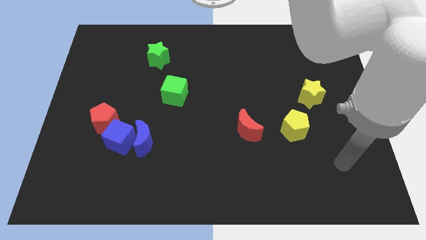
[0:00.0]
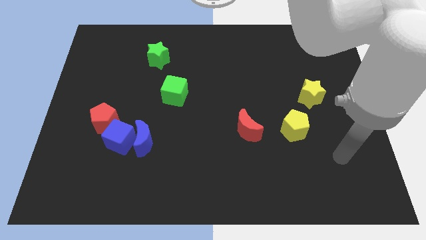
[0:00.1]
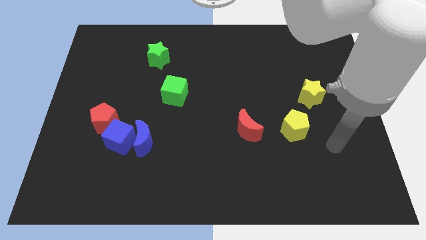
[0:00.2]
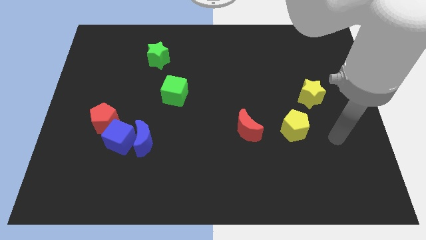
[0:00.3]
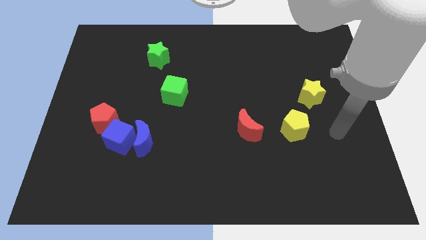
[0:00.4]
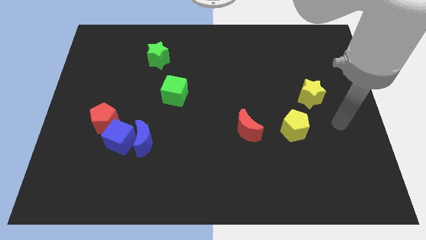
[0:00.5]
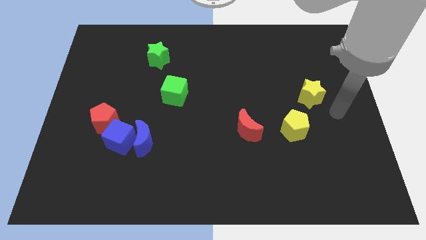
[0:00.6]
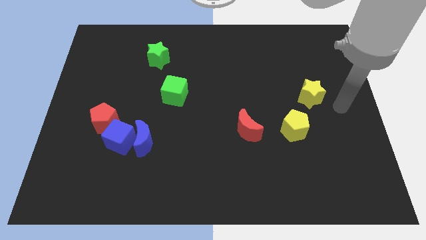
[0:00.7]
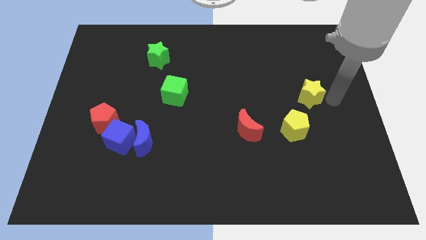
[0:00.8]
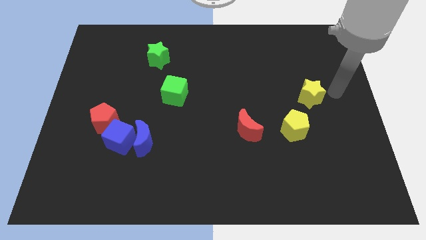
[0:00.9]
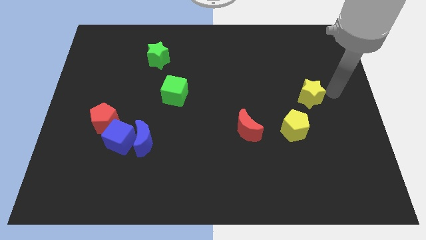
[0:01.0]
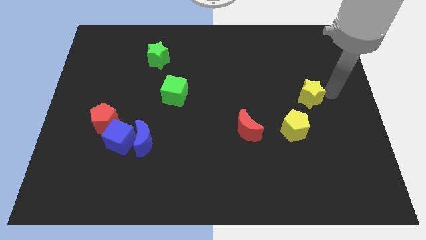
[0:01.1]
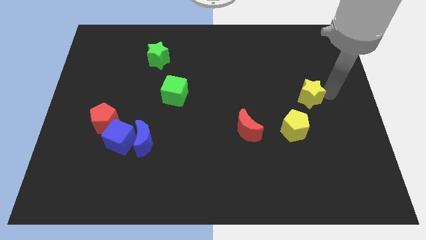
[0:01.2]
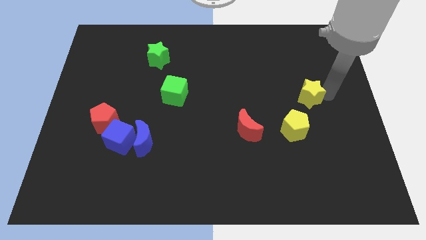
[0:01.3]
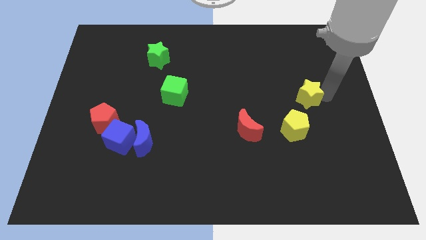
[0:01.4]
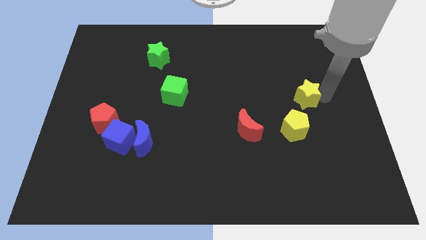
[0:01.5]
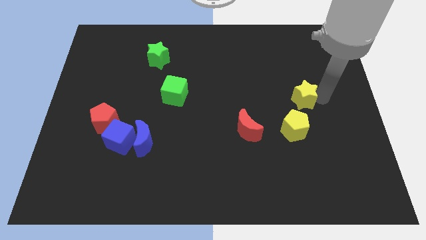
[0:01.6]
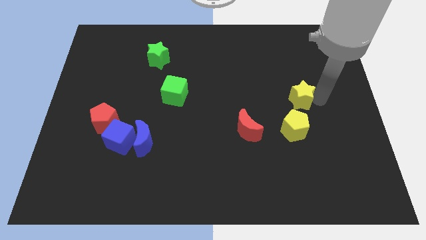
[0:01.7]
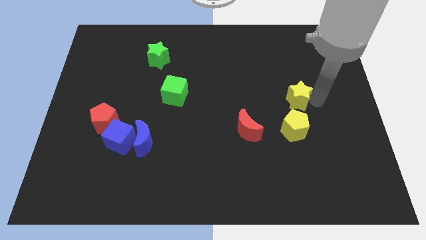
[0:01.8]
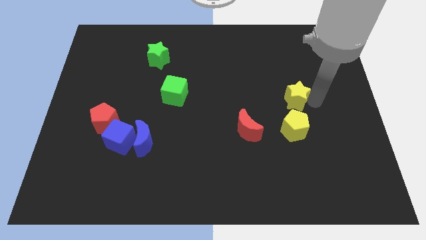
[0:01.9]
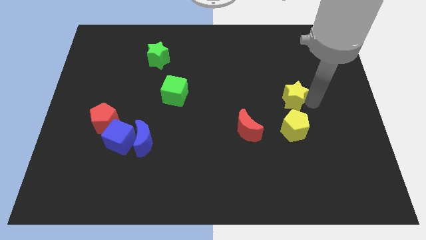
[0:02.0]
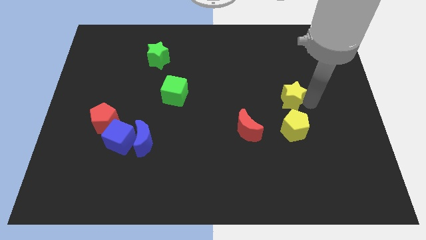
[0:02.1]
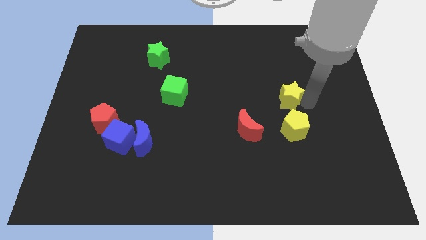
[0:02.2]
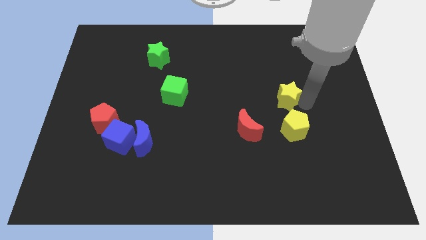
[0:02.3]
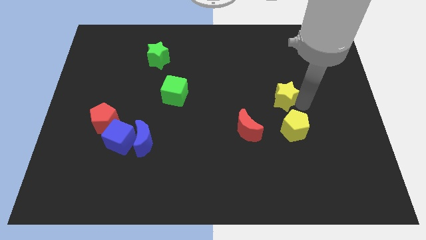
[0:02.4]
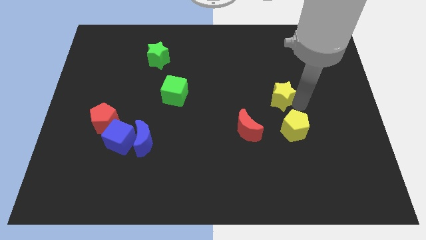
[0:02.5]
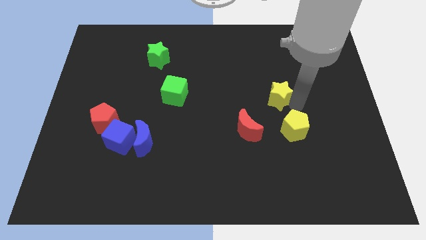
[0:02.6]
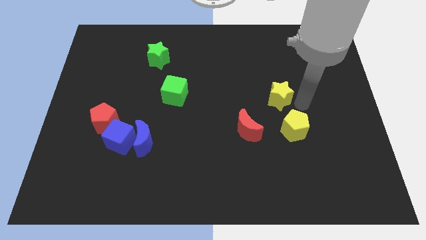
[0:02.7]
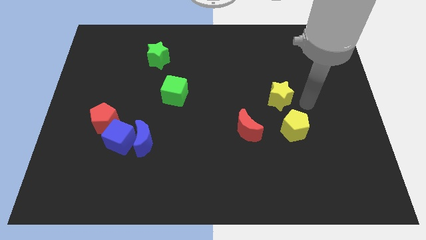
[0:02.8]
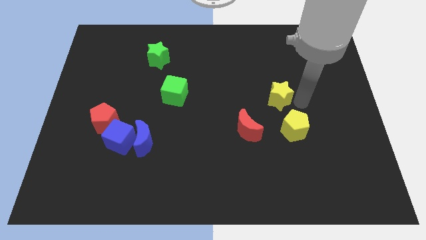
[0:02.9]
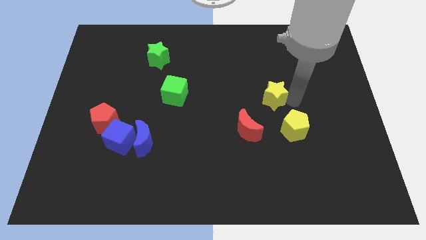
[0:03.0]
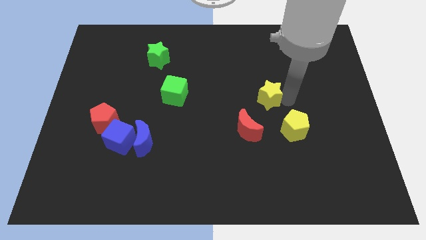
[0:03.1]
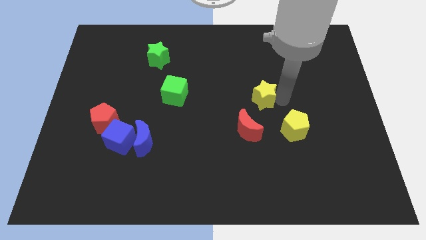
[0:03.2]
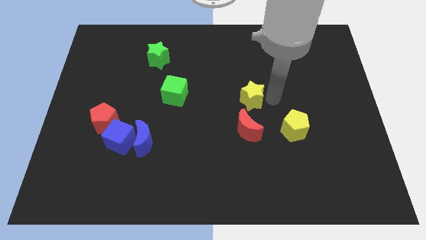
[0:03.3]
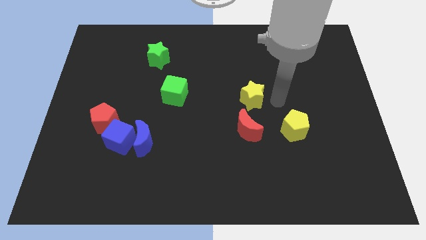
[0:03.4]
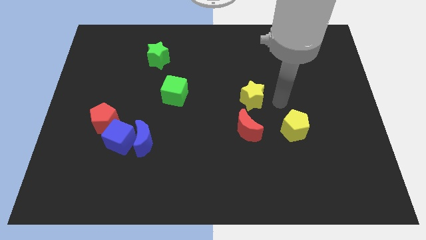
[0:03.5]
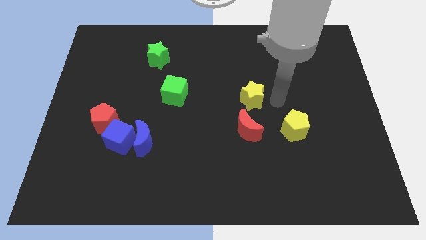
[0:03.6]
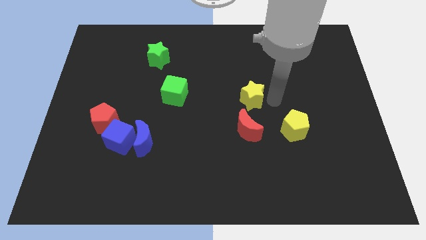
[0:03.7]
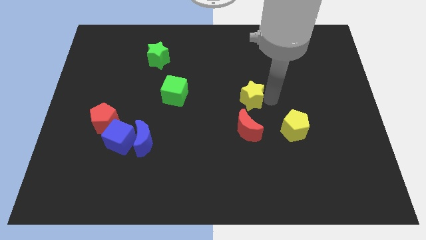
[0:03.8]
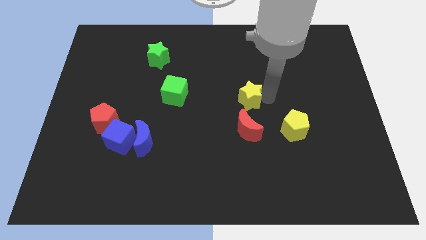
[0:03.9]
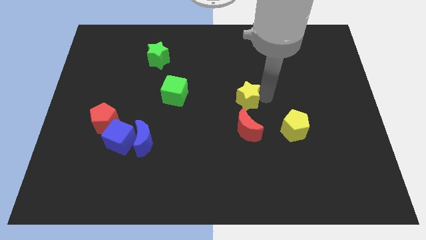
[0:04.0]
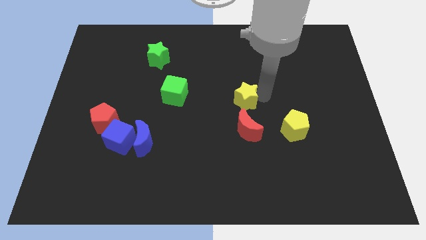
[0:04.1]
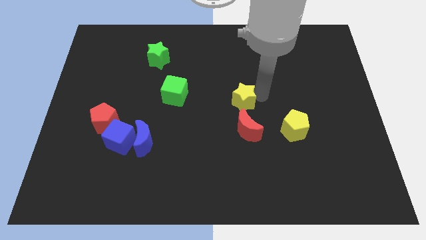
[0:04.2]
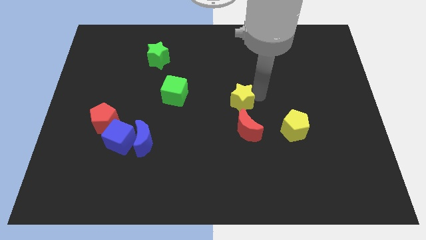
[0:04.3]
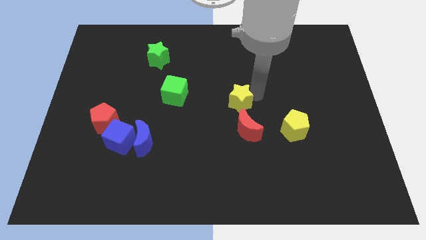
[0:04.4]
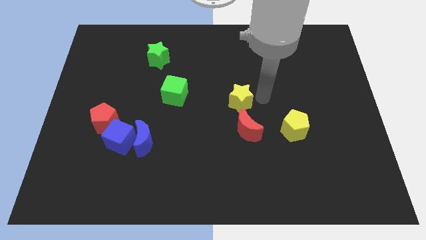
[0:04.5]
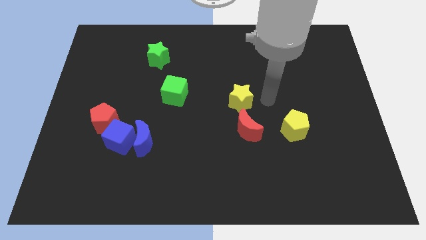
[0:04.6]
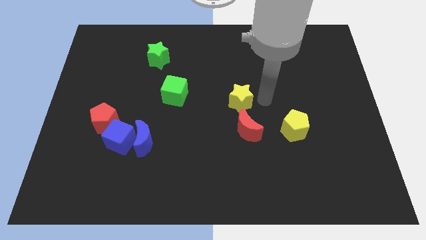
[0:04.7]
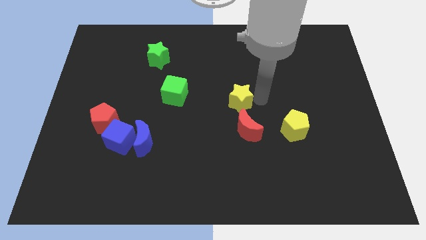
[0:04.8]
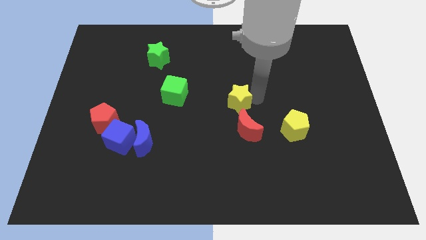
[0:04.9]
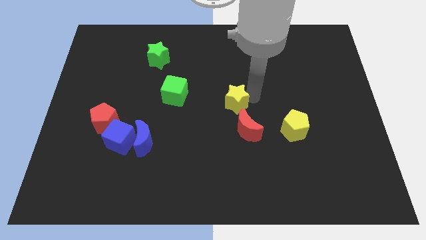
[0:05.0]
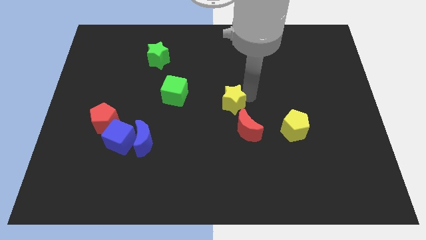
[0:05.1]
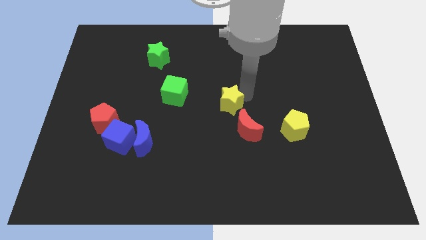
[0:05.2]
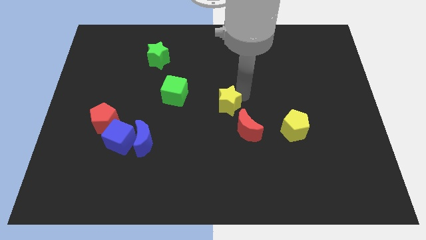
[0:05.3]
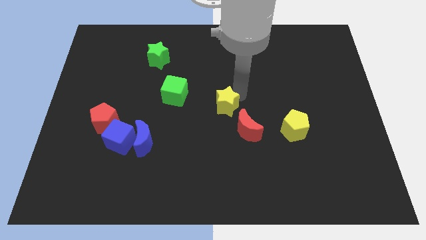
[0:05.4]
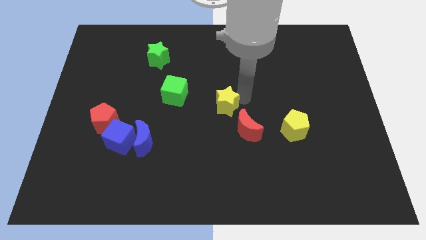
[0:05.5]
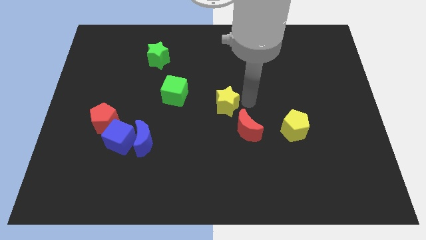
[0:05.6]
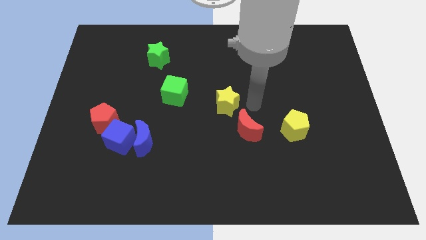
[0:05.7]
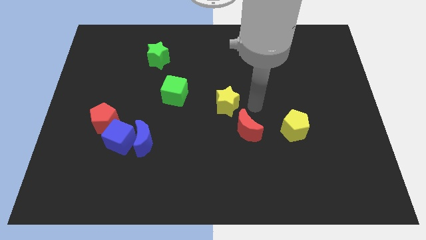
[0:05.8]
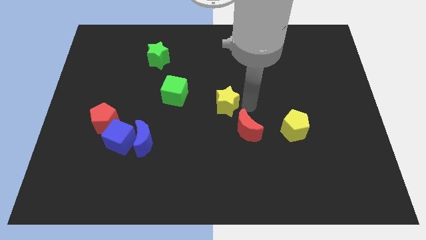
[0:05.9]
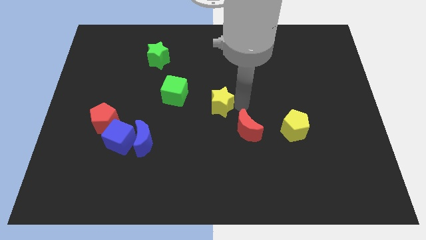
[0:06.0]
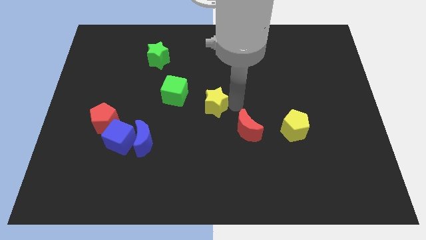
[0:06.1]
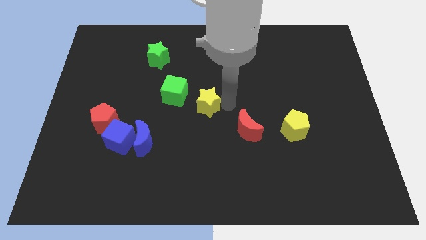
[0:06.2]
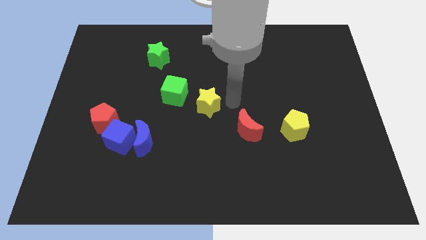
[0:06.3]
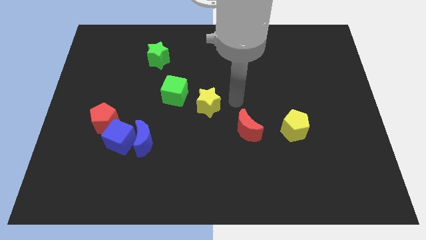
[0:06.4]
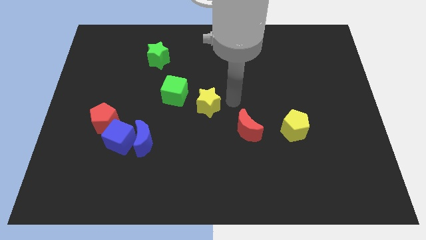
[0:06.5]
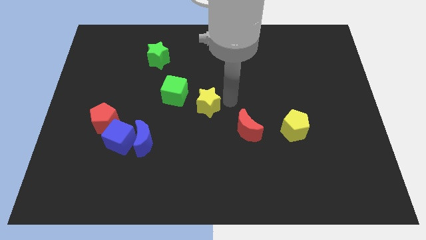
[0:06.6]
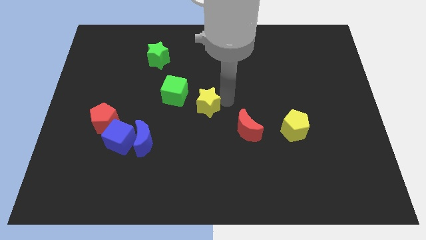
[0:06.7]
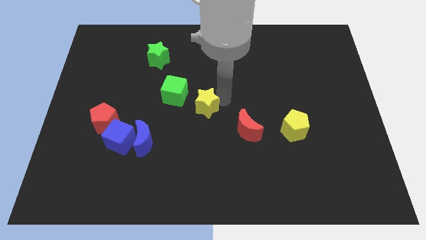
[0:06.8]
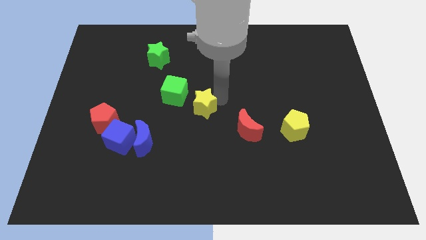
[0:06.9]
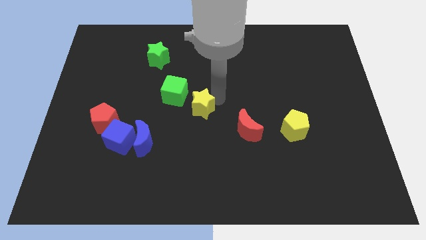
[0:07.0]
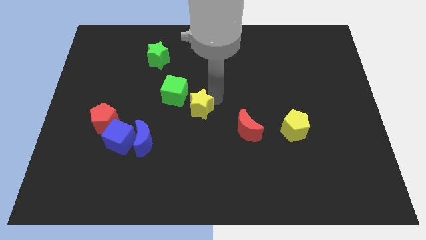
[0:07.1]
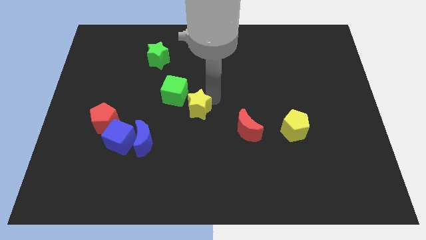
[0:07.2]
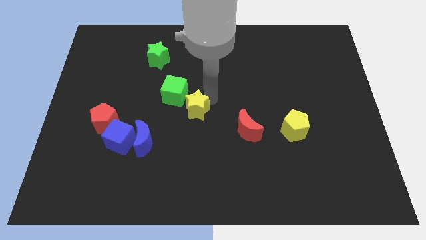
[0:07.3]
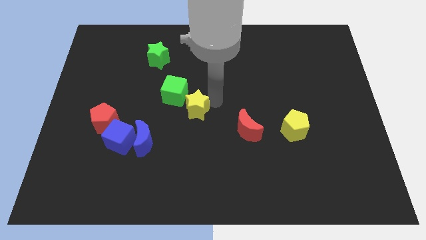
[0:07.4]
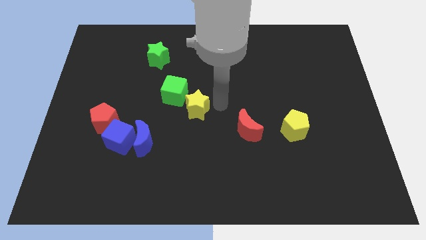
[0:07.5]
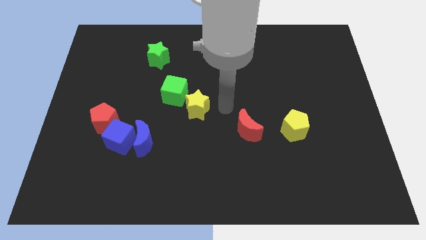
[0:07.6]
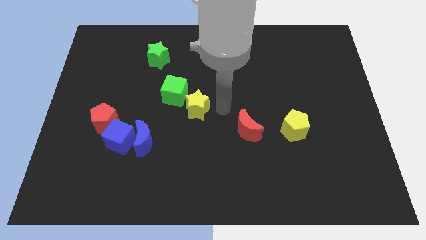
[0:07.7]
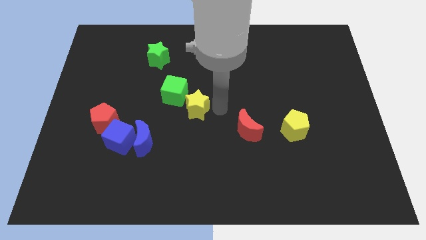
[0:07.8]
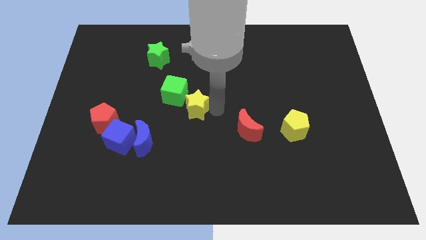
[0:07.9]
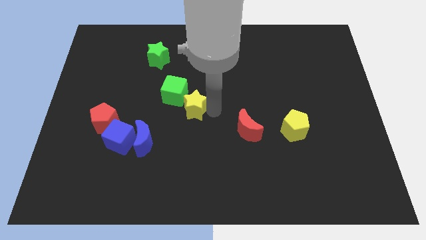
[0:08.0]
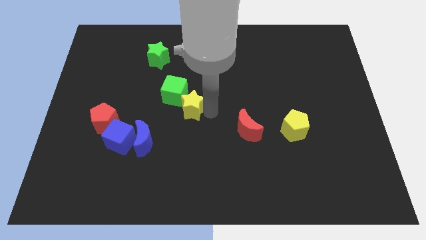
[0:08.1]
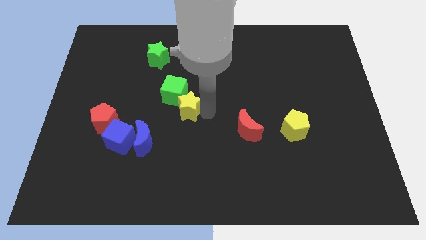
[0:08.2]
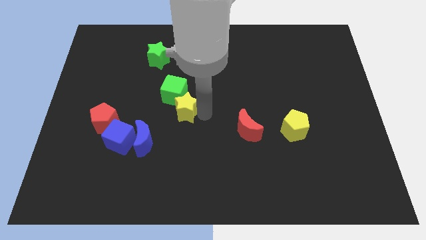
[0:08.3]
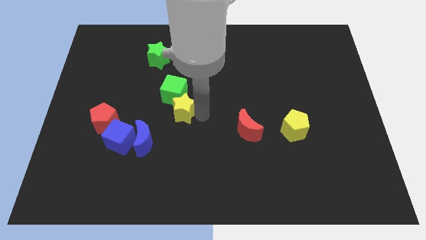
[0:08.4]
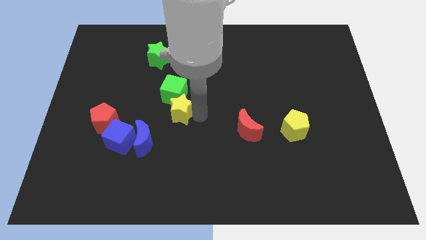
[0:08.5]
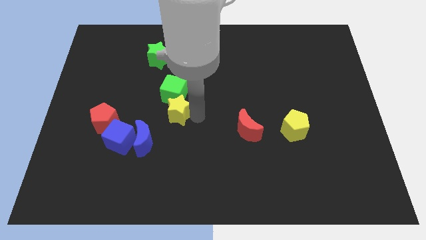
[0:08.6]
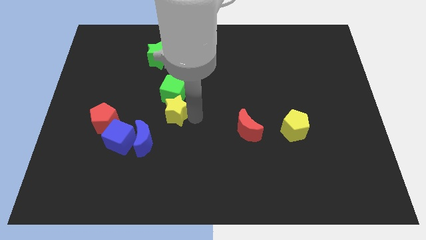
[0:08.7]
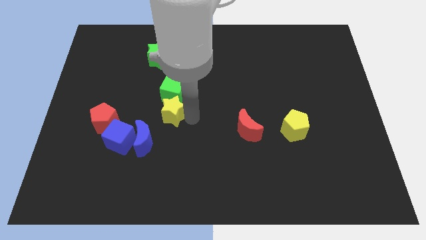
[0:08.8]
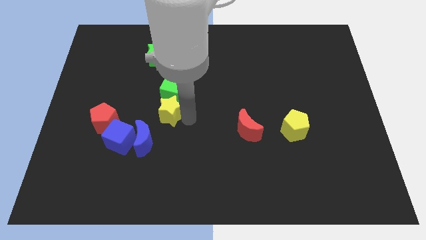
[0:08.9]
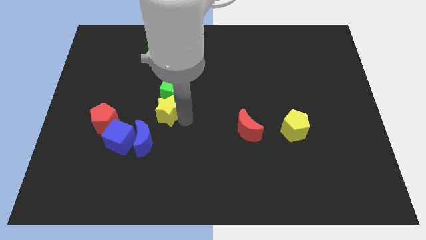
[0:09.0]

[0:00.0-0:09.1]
move the yellow star to the top of the blue moon
